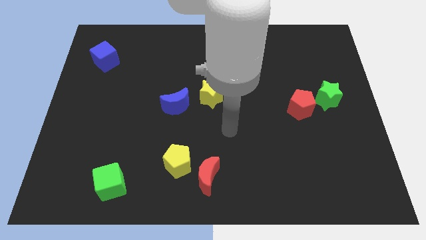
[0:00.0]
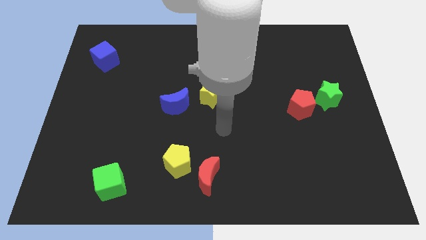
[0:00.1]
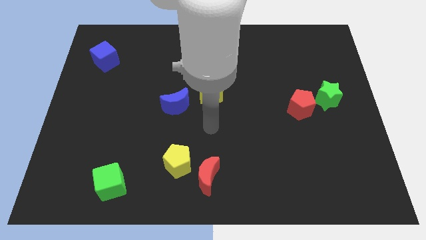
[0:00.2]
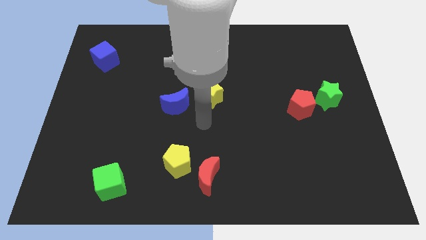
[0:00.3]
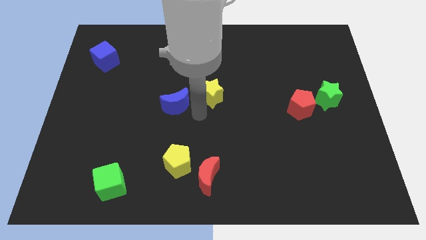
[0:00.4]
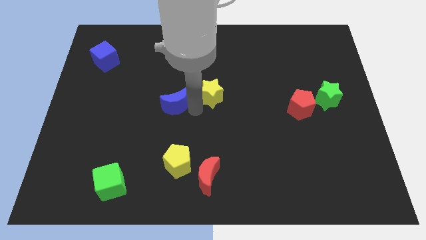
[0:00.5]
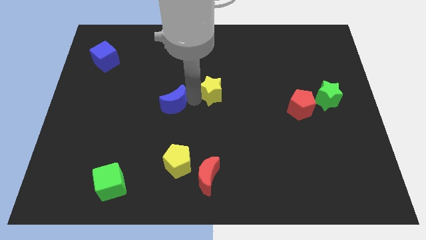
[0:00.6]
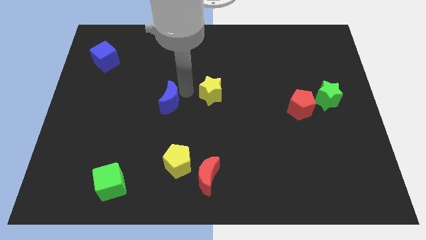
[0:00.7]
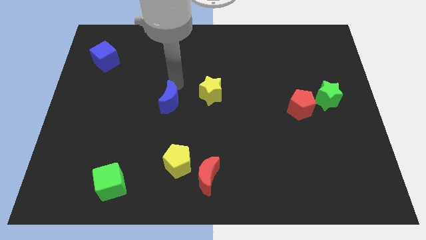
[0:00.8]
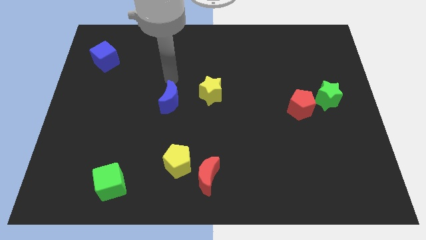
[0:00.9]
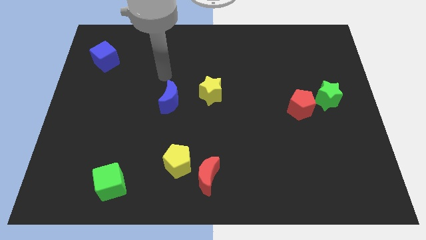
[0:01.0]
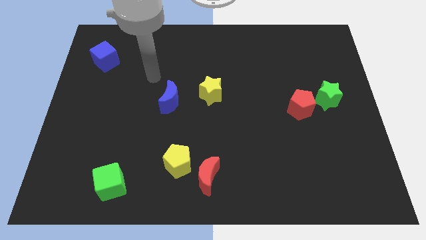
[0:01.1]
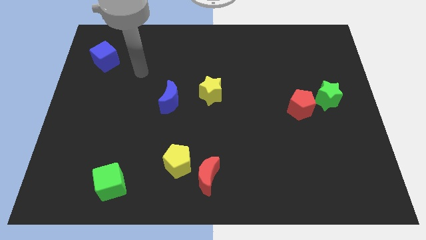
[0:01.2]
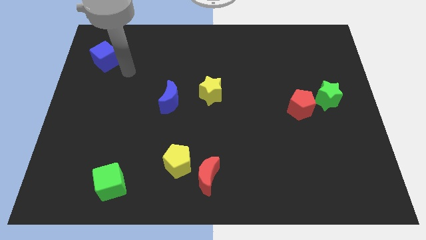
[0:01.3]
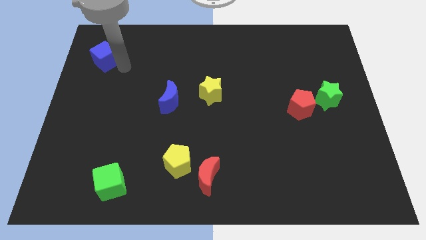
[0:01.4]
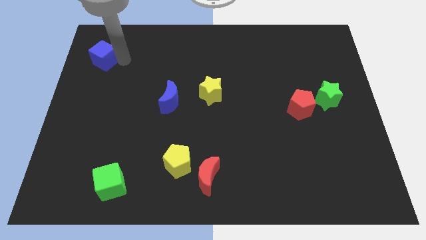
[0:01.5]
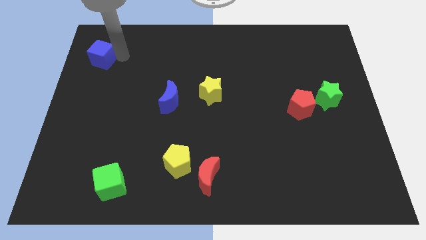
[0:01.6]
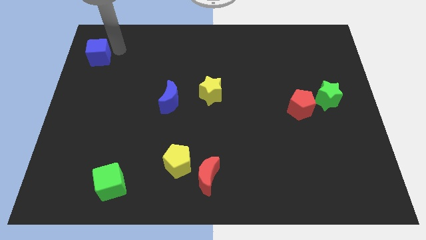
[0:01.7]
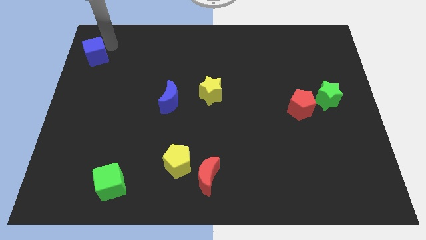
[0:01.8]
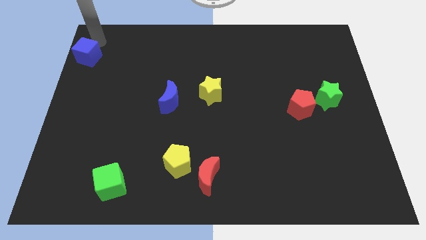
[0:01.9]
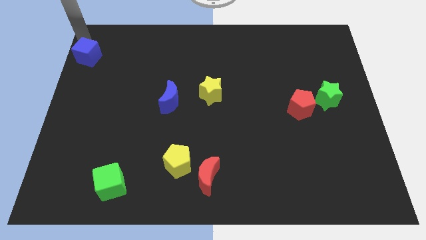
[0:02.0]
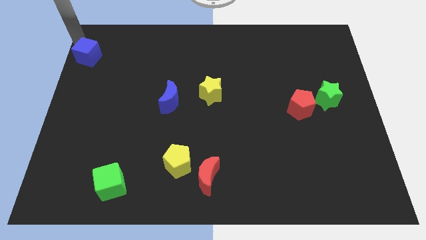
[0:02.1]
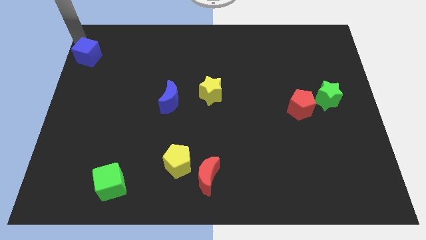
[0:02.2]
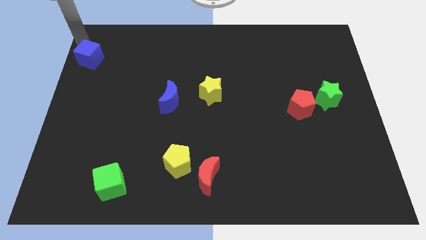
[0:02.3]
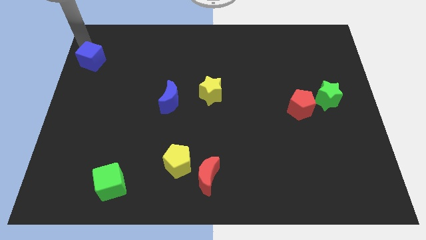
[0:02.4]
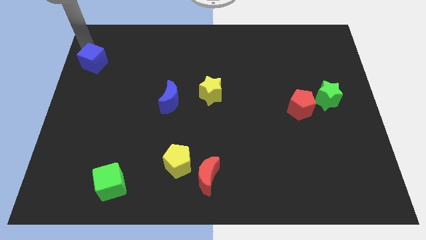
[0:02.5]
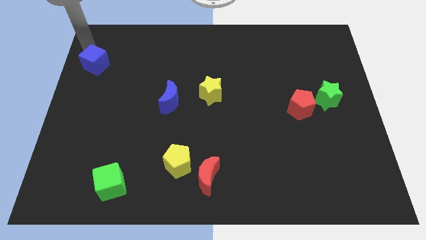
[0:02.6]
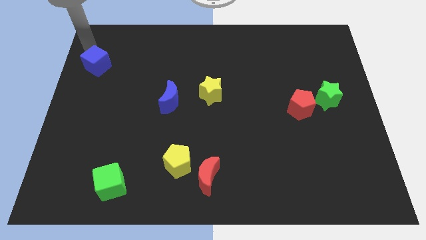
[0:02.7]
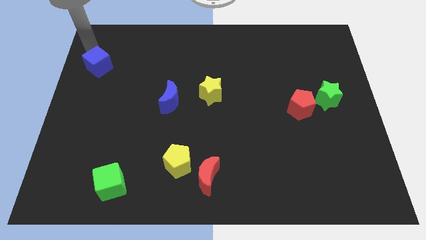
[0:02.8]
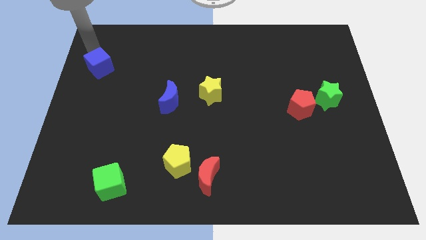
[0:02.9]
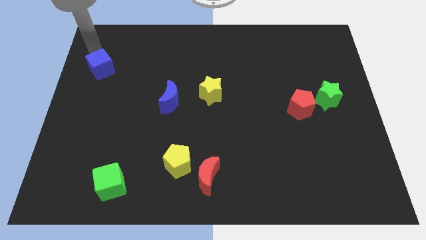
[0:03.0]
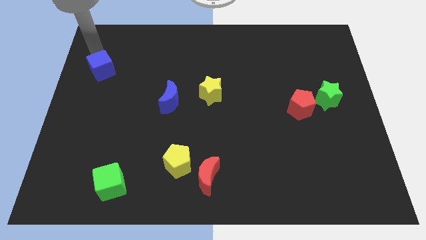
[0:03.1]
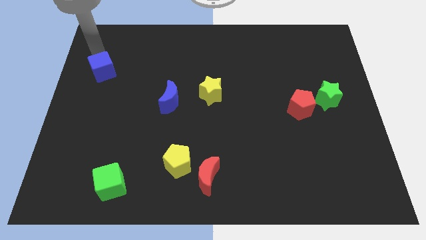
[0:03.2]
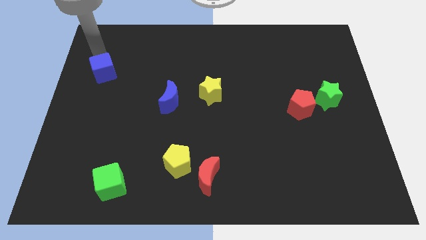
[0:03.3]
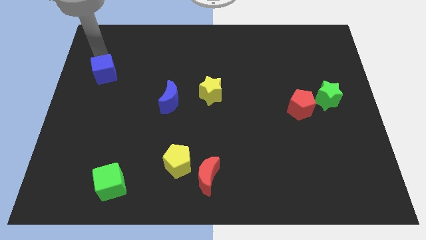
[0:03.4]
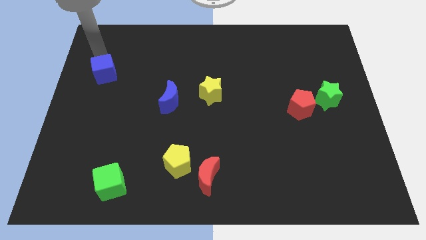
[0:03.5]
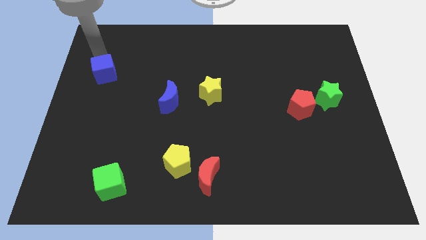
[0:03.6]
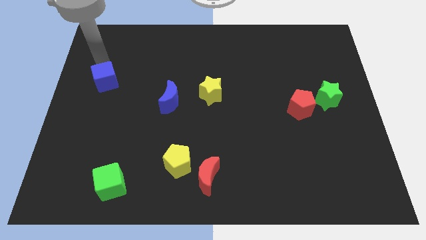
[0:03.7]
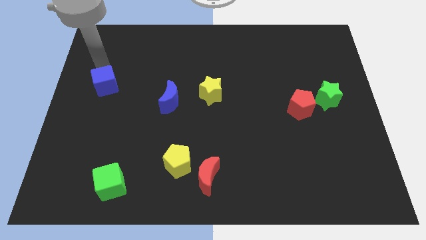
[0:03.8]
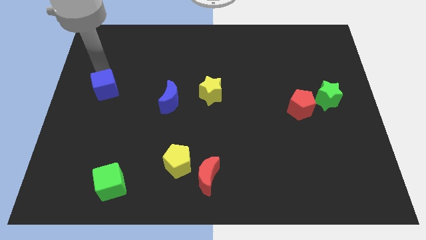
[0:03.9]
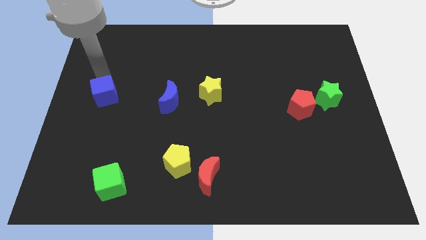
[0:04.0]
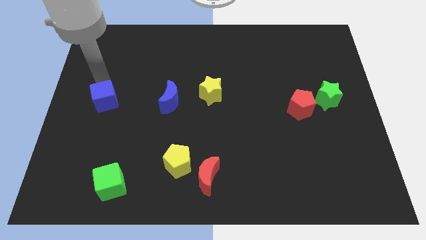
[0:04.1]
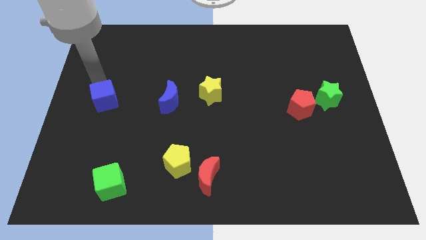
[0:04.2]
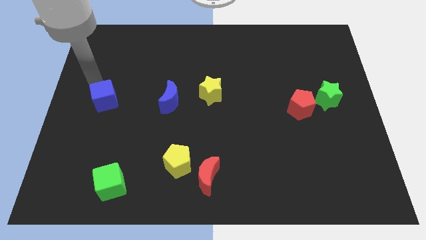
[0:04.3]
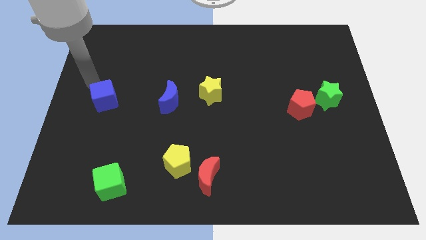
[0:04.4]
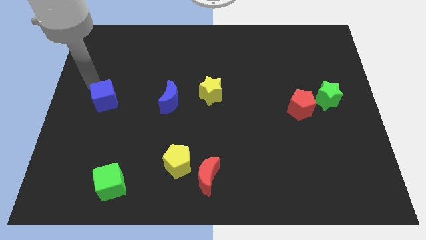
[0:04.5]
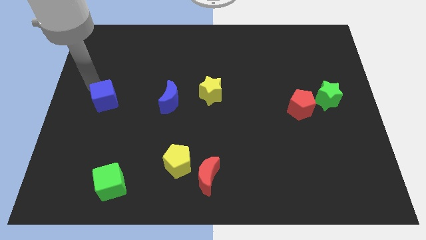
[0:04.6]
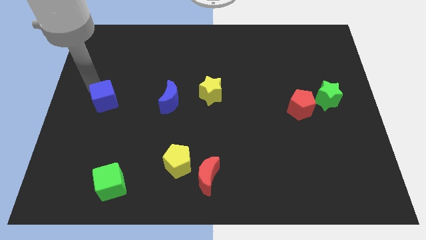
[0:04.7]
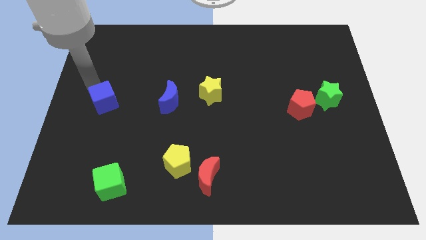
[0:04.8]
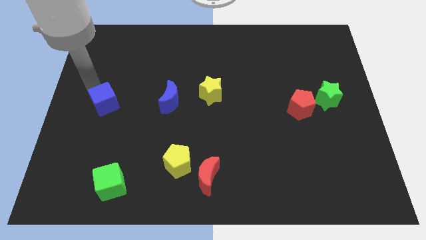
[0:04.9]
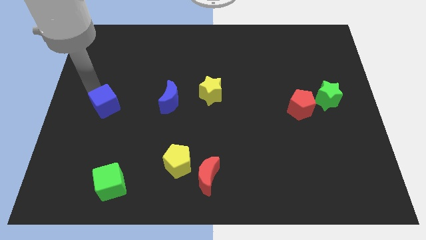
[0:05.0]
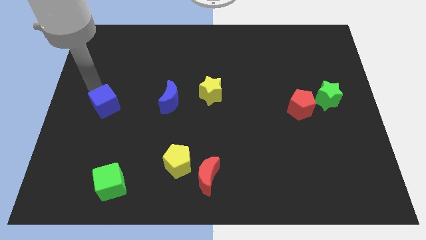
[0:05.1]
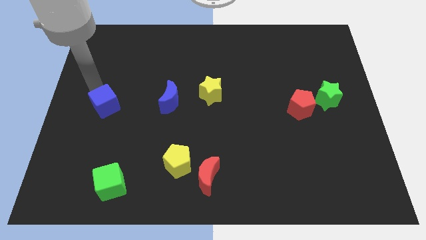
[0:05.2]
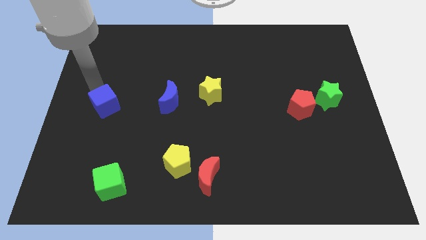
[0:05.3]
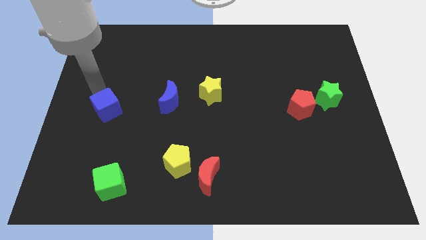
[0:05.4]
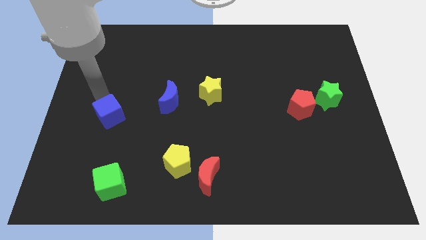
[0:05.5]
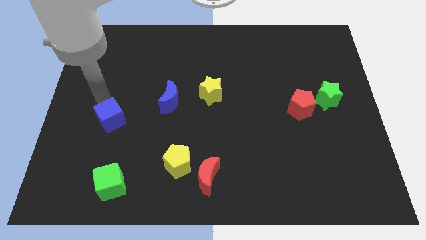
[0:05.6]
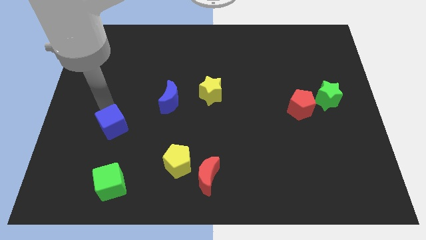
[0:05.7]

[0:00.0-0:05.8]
put the blue cube to the top of the green cube

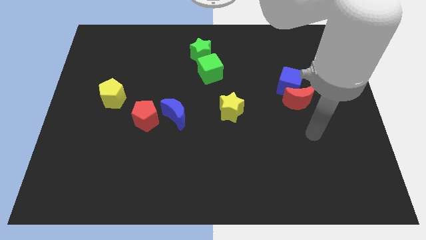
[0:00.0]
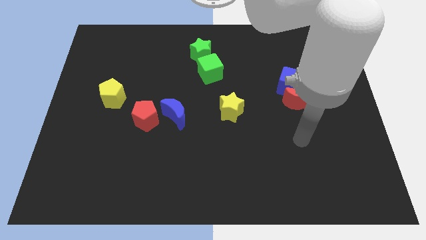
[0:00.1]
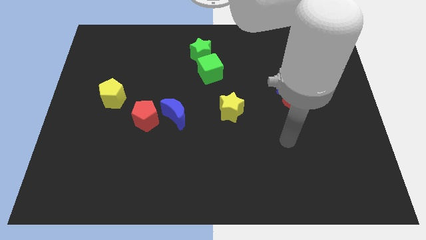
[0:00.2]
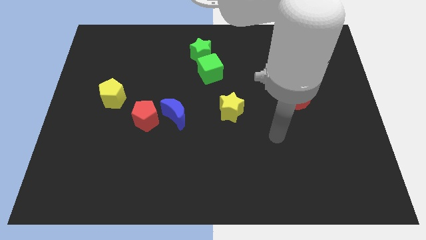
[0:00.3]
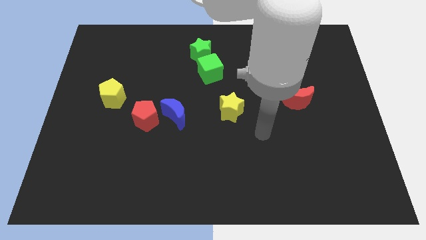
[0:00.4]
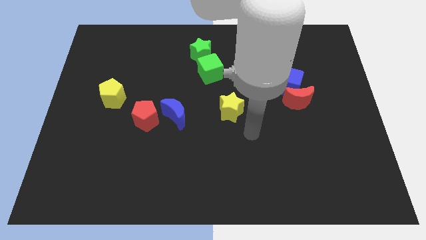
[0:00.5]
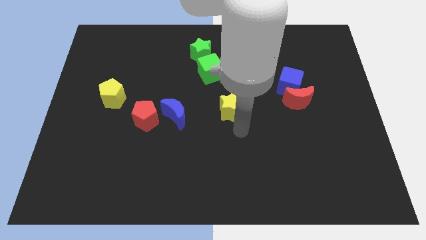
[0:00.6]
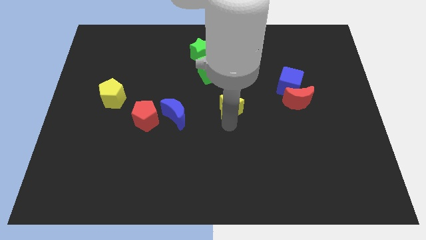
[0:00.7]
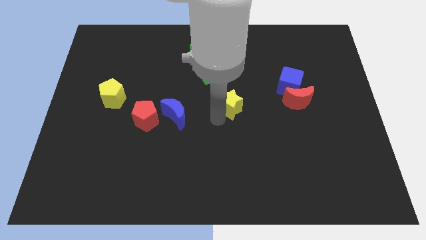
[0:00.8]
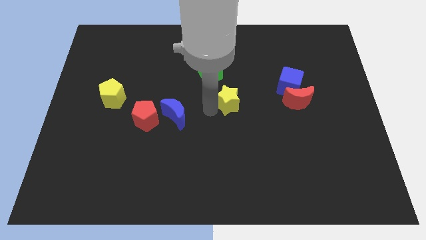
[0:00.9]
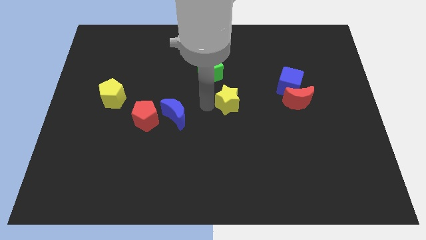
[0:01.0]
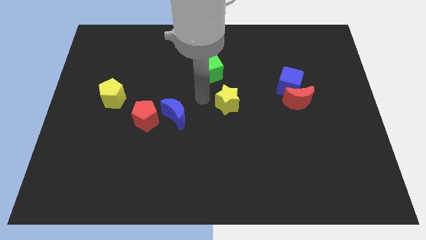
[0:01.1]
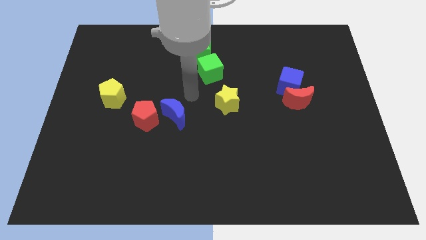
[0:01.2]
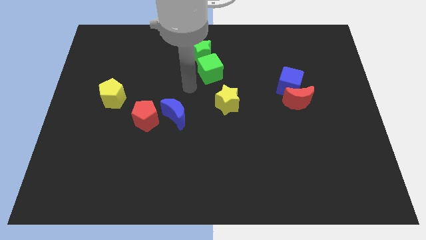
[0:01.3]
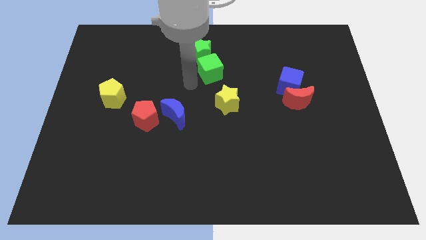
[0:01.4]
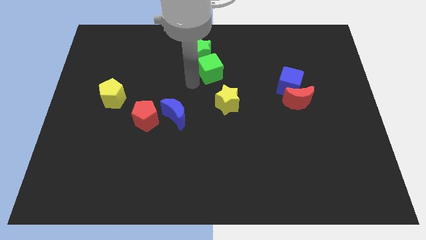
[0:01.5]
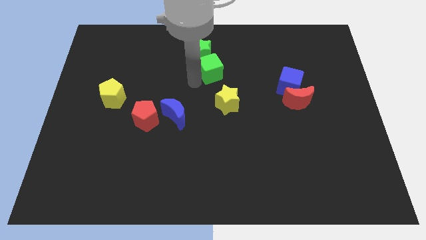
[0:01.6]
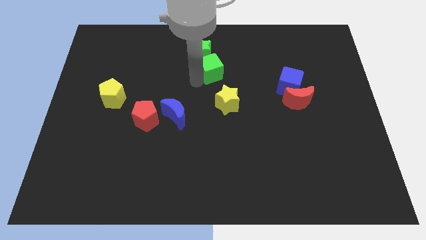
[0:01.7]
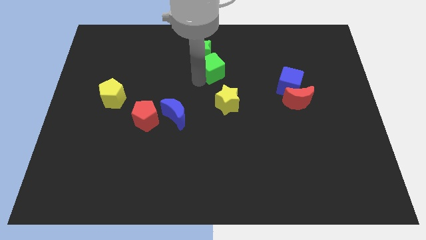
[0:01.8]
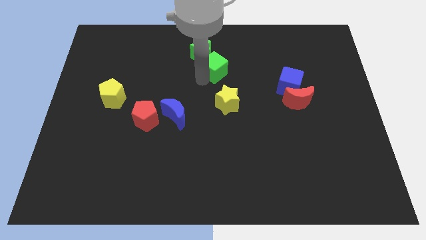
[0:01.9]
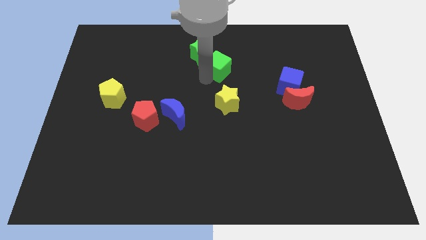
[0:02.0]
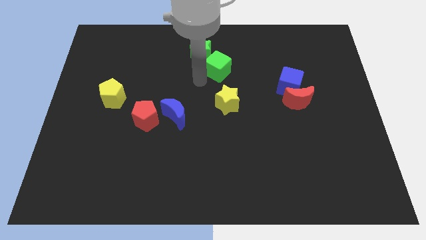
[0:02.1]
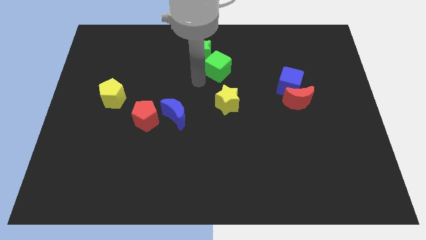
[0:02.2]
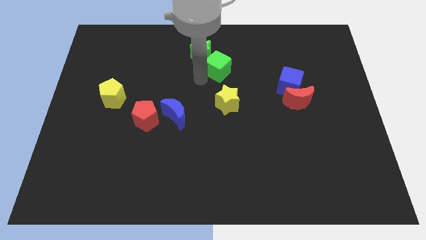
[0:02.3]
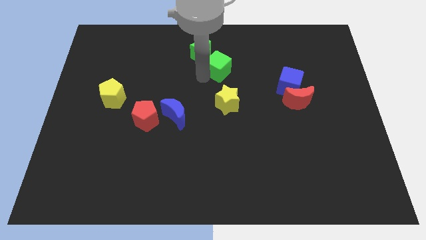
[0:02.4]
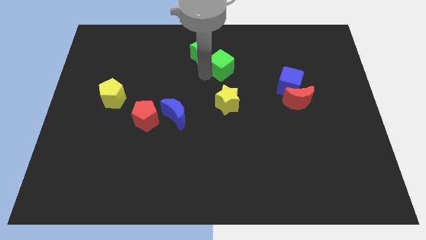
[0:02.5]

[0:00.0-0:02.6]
move the green cube to the right side of the green star
